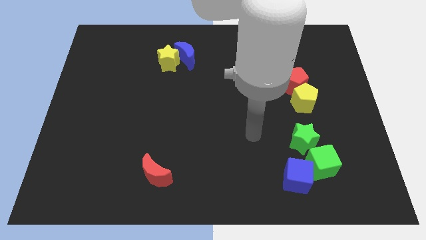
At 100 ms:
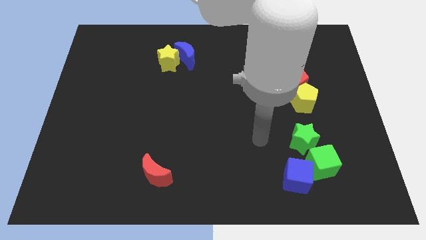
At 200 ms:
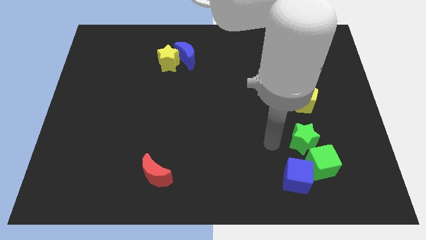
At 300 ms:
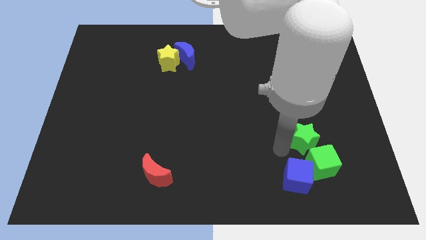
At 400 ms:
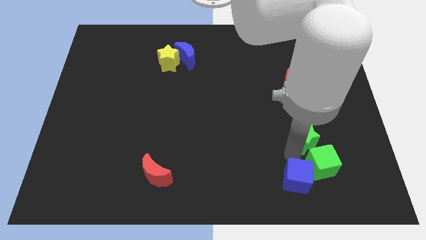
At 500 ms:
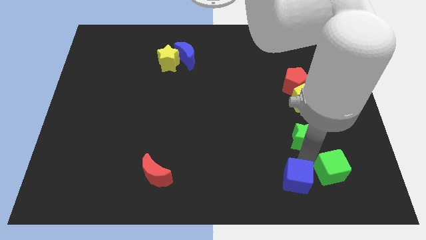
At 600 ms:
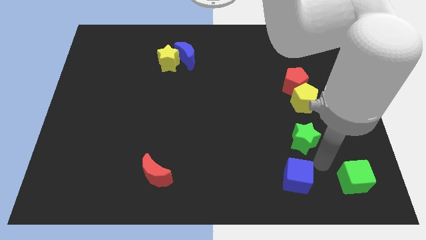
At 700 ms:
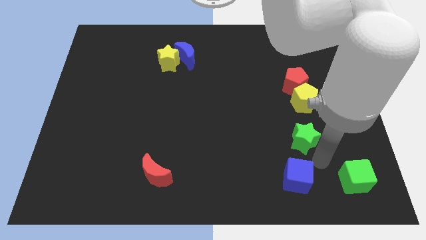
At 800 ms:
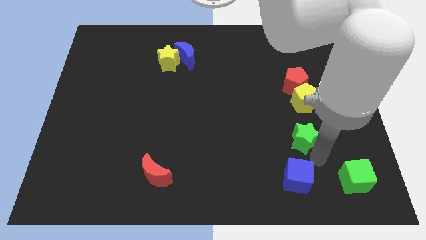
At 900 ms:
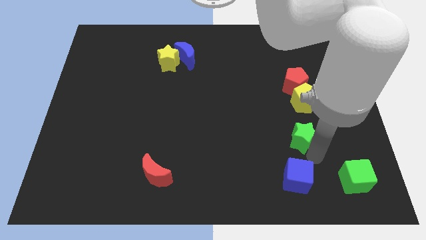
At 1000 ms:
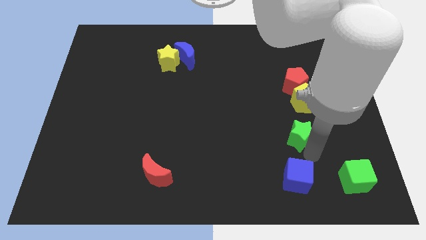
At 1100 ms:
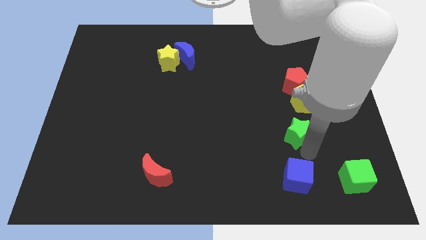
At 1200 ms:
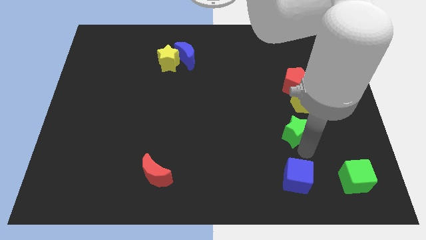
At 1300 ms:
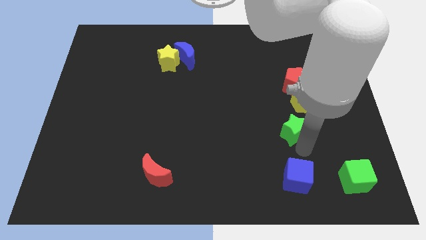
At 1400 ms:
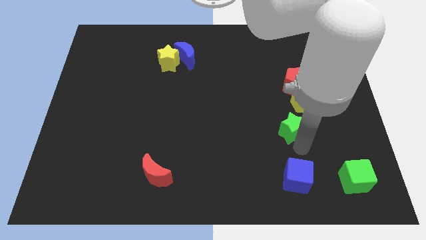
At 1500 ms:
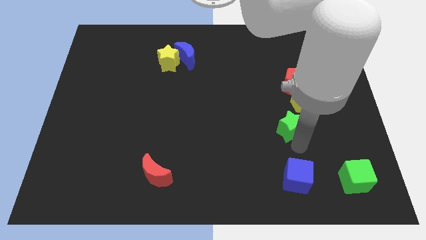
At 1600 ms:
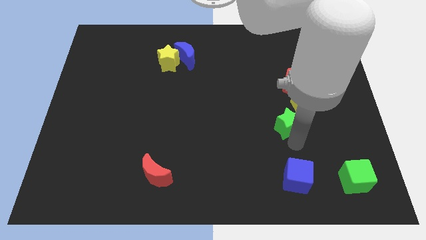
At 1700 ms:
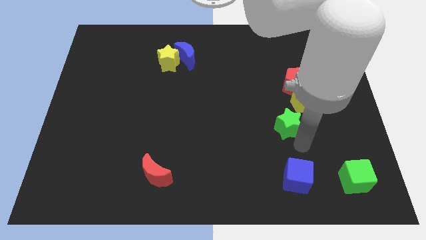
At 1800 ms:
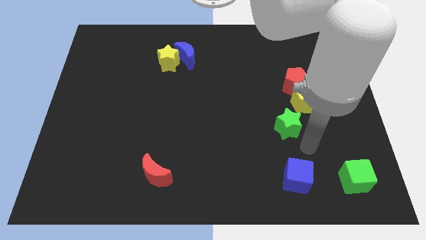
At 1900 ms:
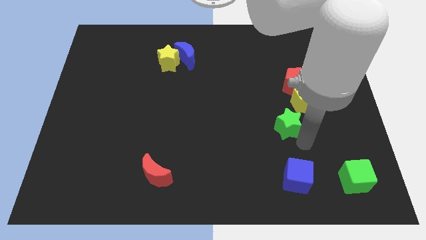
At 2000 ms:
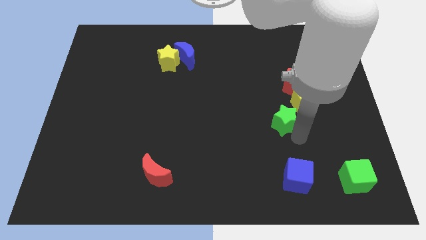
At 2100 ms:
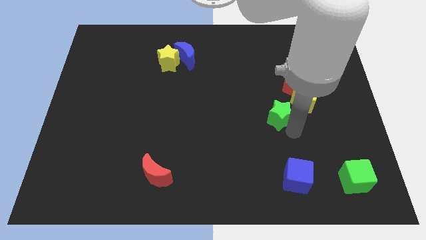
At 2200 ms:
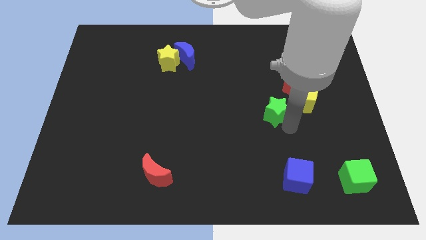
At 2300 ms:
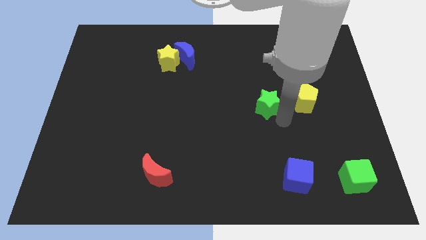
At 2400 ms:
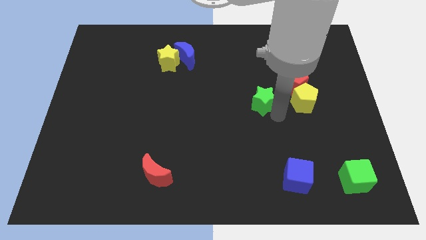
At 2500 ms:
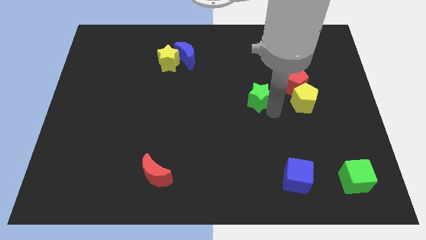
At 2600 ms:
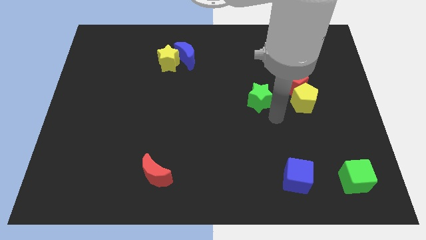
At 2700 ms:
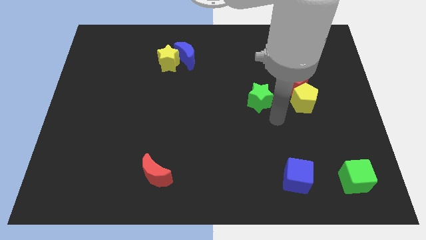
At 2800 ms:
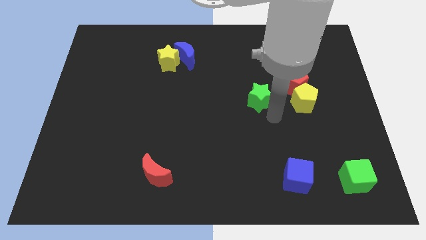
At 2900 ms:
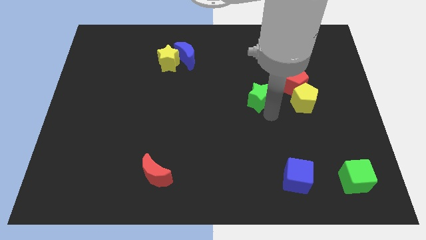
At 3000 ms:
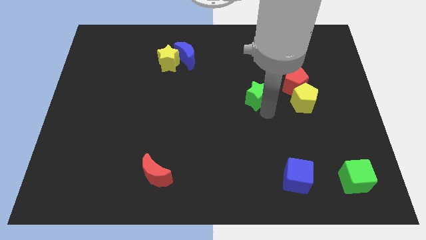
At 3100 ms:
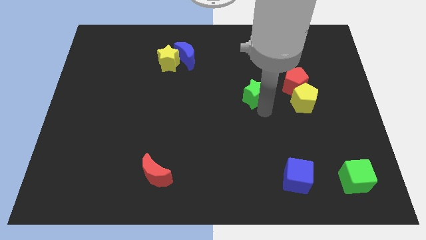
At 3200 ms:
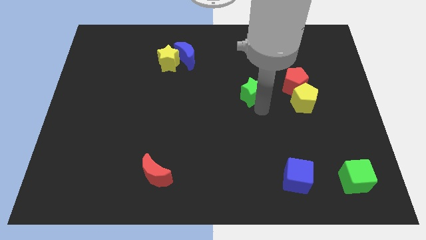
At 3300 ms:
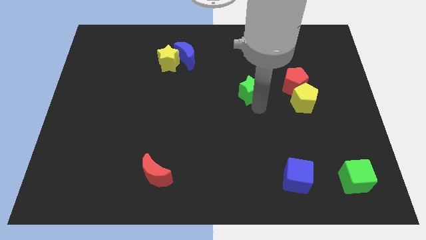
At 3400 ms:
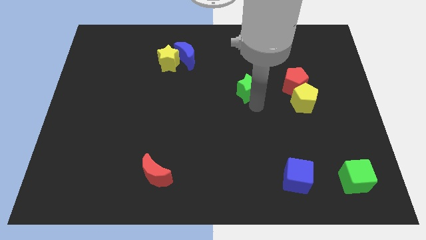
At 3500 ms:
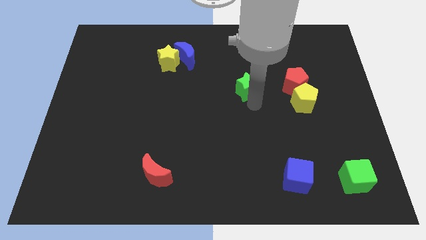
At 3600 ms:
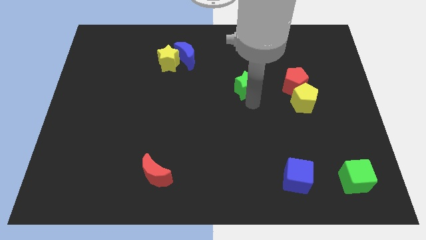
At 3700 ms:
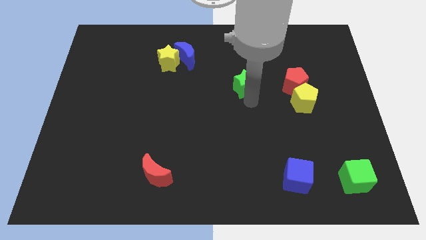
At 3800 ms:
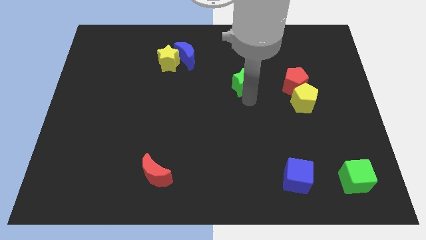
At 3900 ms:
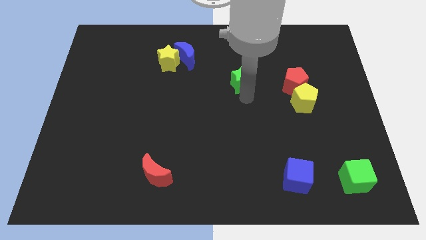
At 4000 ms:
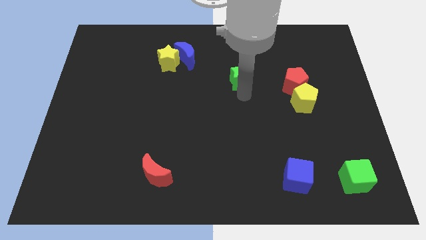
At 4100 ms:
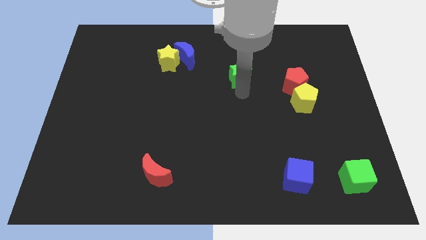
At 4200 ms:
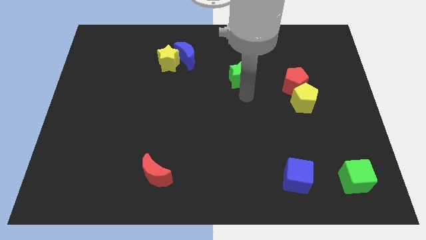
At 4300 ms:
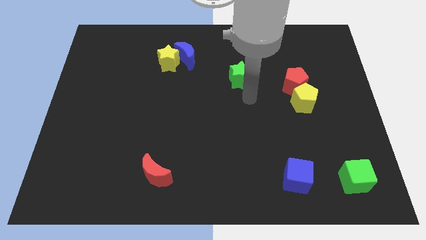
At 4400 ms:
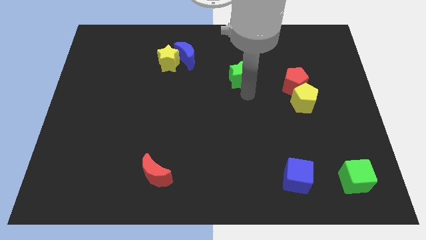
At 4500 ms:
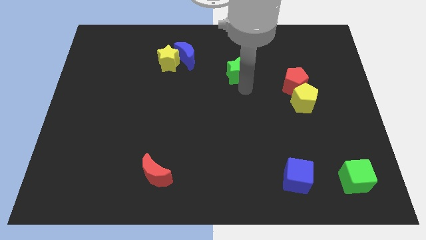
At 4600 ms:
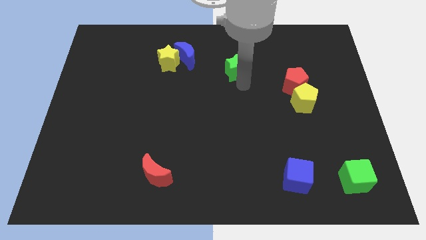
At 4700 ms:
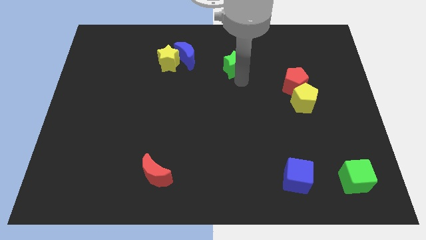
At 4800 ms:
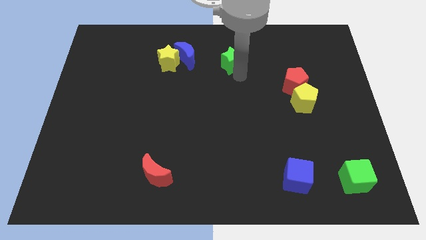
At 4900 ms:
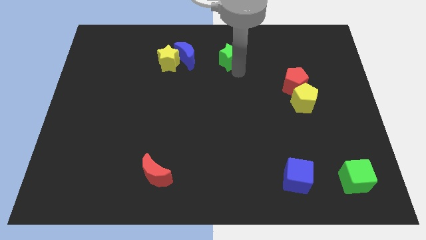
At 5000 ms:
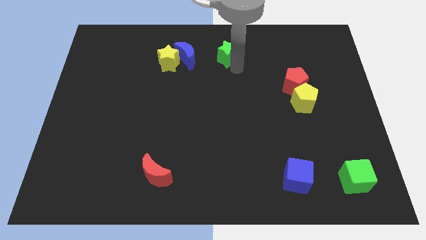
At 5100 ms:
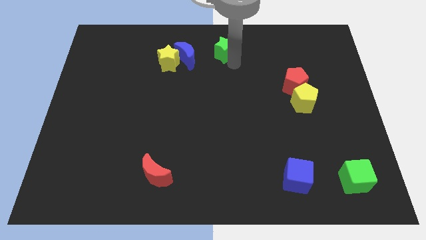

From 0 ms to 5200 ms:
slide the green star to the towards your base

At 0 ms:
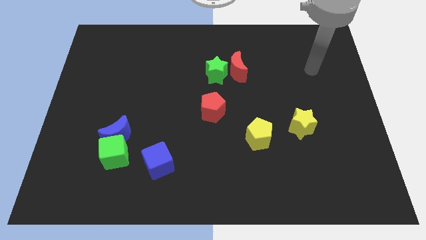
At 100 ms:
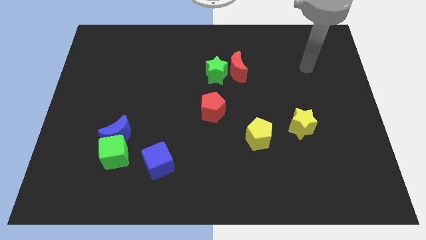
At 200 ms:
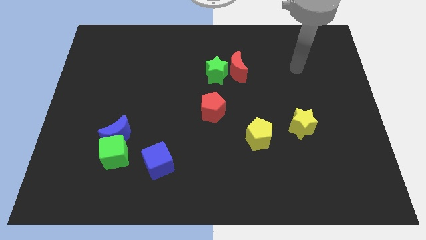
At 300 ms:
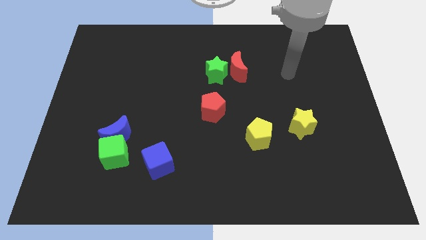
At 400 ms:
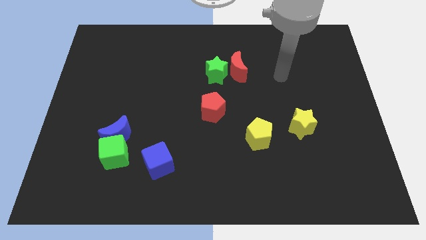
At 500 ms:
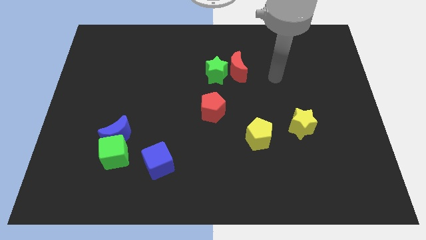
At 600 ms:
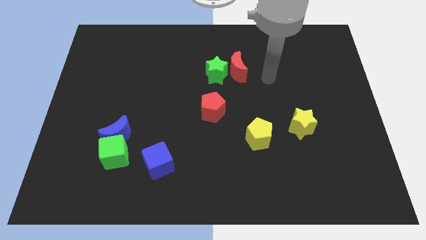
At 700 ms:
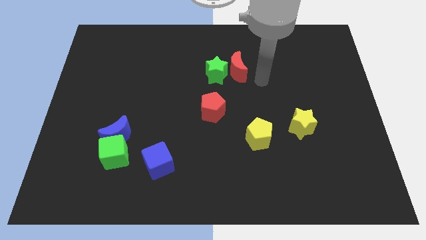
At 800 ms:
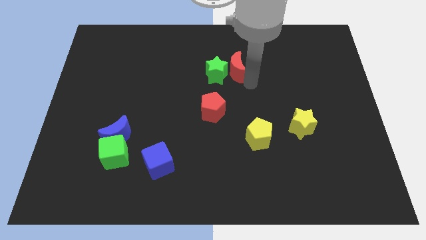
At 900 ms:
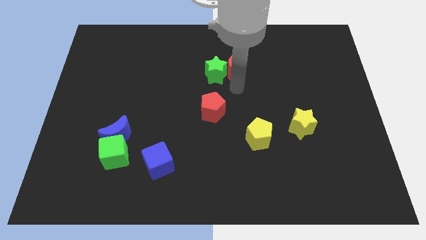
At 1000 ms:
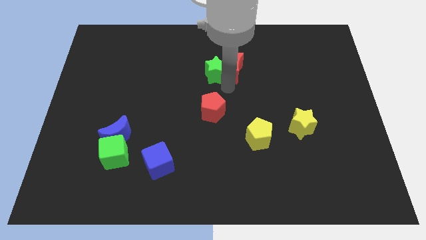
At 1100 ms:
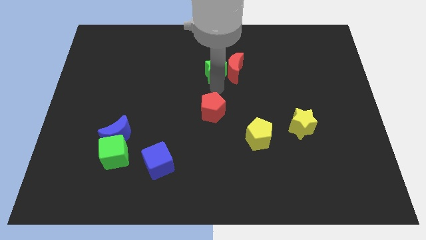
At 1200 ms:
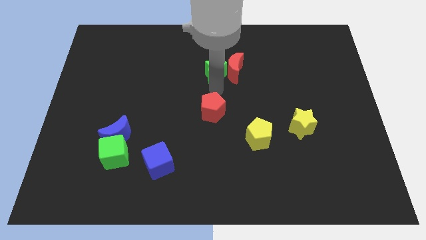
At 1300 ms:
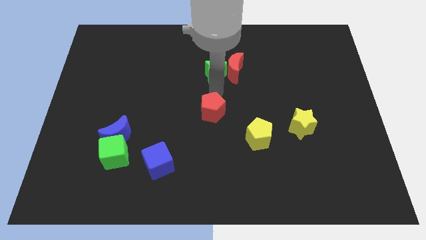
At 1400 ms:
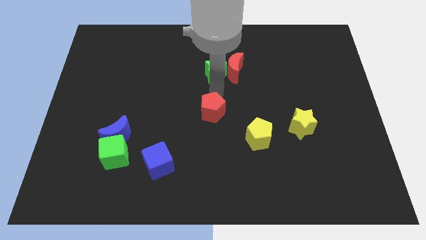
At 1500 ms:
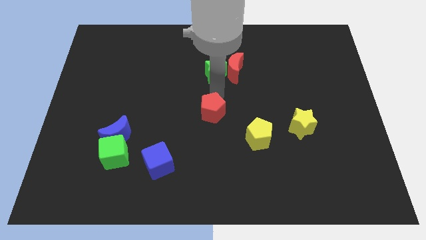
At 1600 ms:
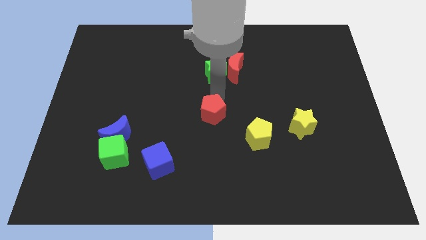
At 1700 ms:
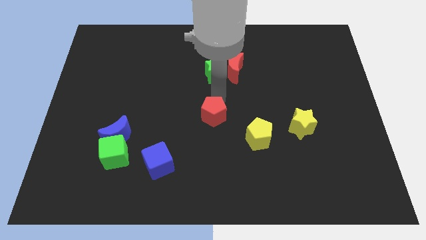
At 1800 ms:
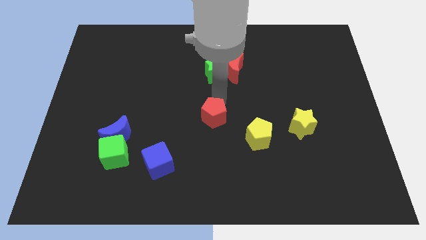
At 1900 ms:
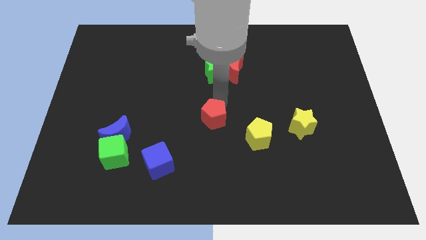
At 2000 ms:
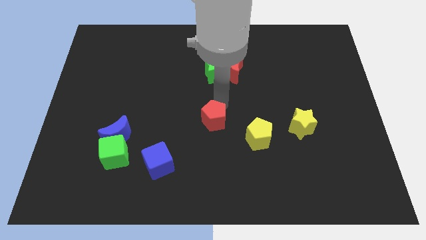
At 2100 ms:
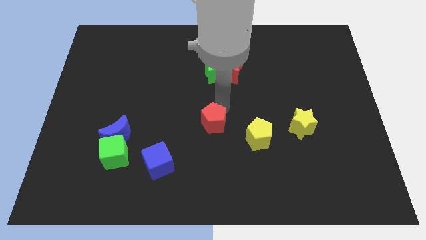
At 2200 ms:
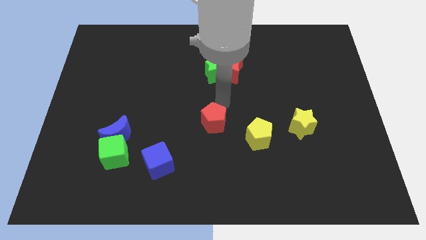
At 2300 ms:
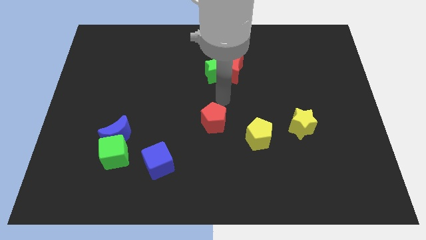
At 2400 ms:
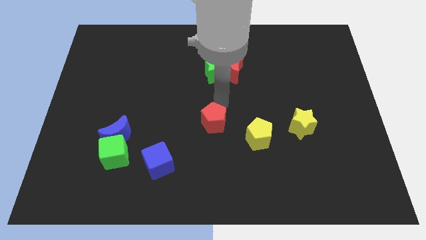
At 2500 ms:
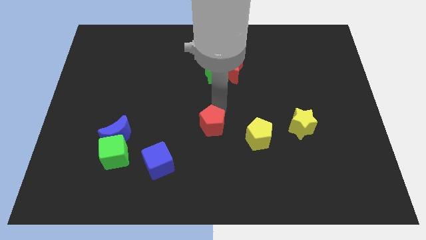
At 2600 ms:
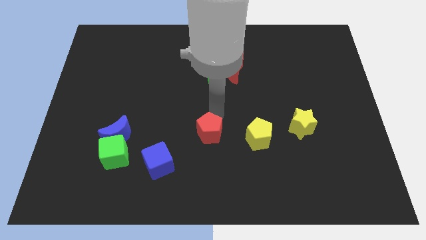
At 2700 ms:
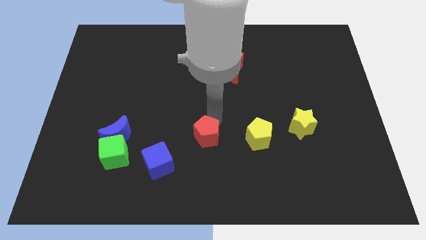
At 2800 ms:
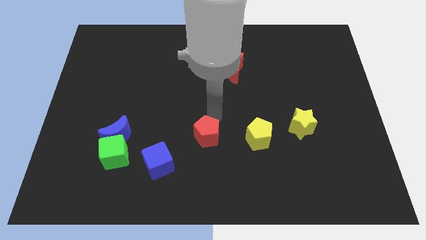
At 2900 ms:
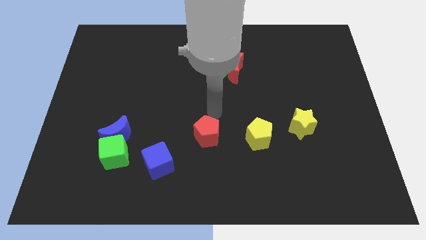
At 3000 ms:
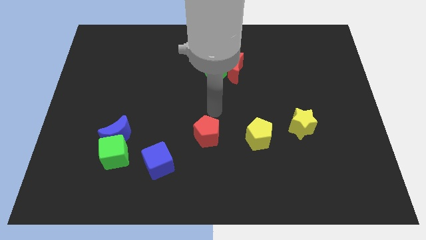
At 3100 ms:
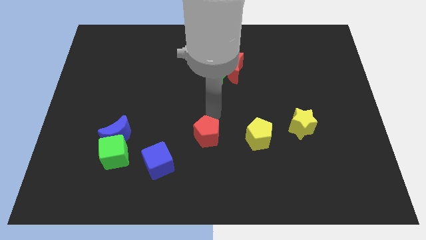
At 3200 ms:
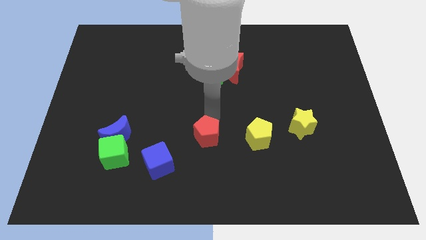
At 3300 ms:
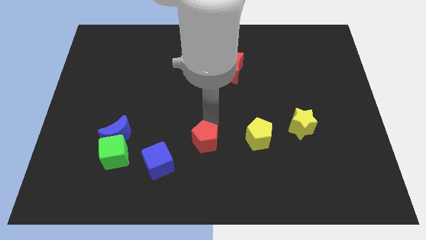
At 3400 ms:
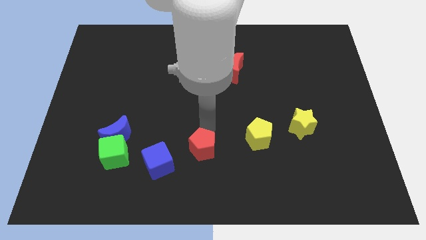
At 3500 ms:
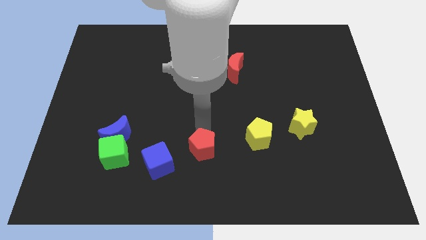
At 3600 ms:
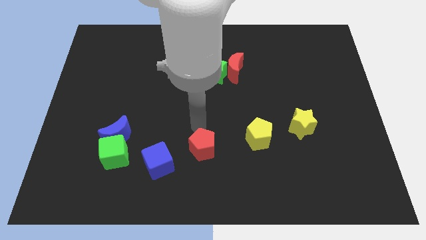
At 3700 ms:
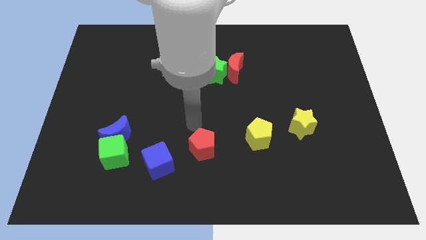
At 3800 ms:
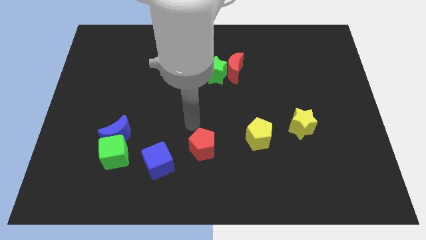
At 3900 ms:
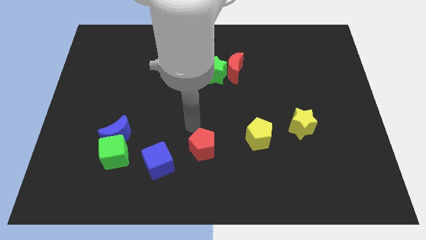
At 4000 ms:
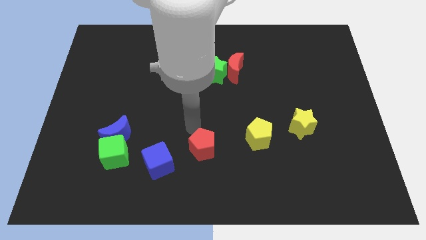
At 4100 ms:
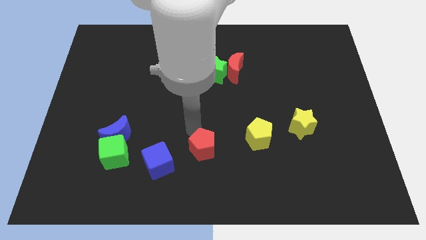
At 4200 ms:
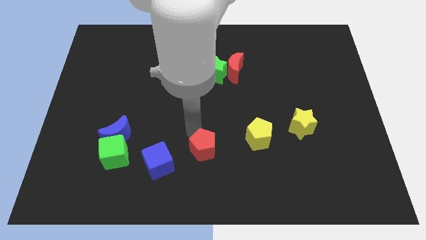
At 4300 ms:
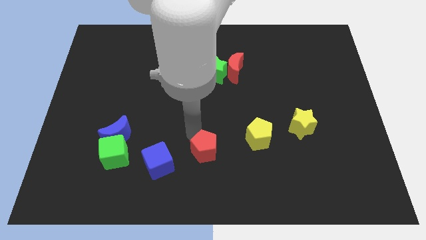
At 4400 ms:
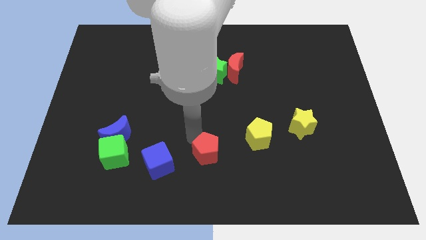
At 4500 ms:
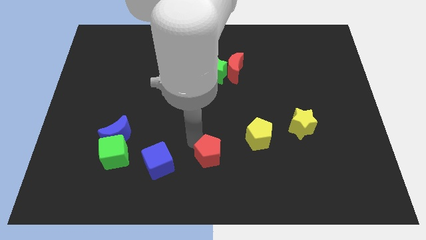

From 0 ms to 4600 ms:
move the red pentagon to the bottom
